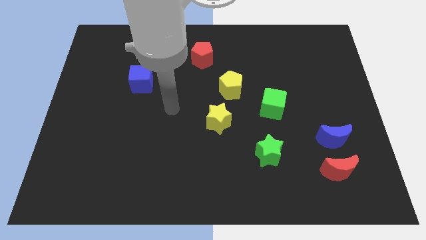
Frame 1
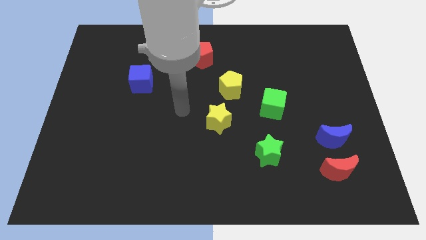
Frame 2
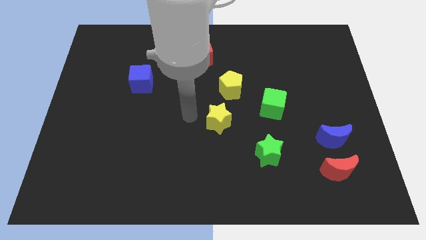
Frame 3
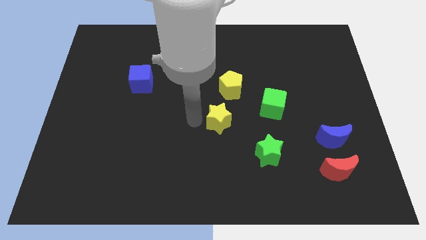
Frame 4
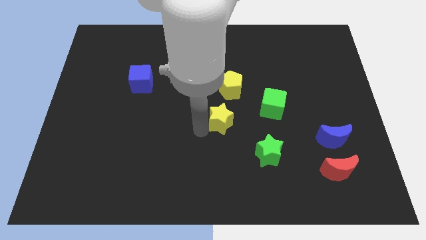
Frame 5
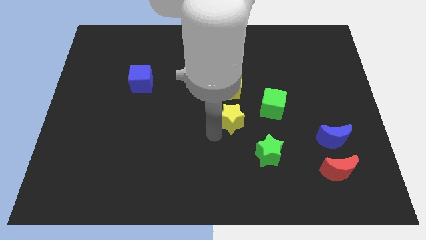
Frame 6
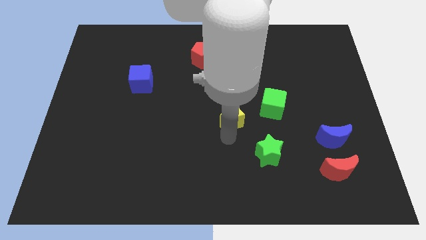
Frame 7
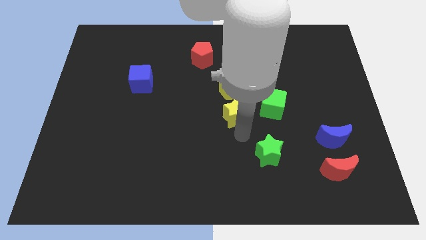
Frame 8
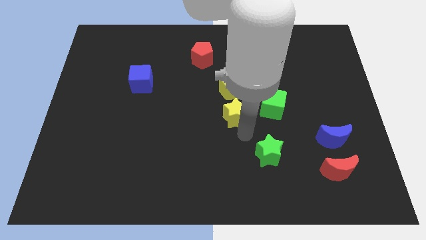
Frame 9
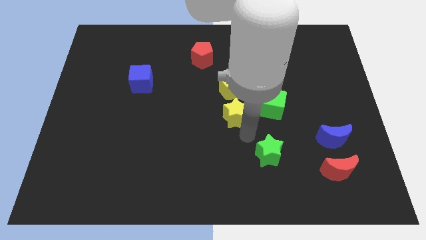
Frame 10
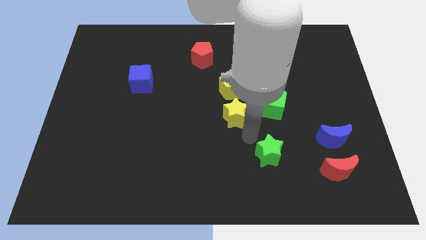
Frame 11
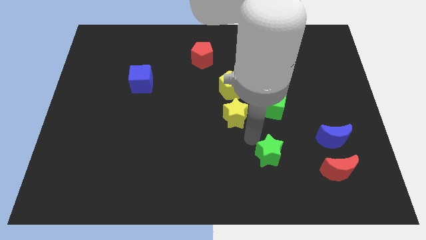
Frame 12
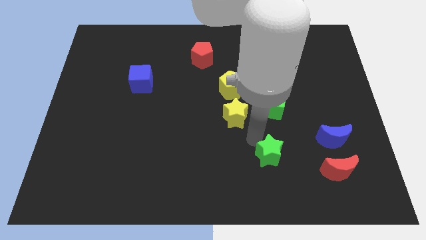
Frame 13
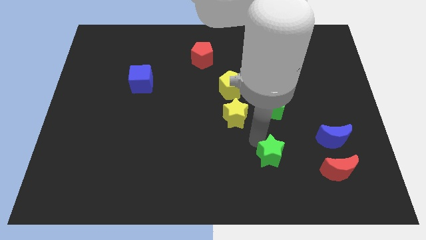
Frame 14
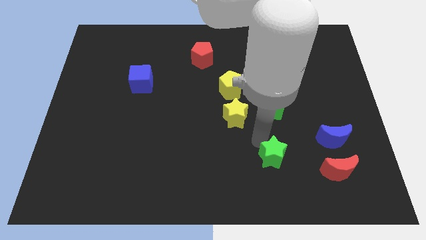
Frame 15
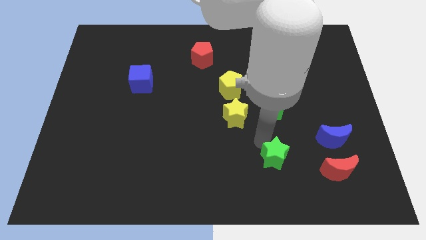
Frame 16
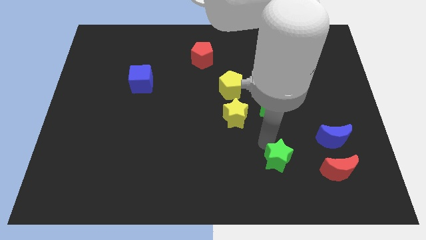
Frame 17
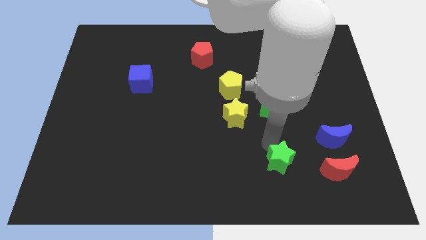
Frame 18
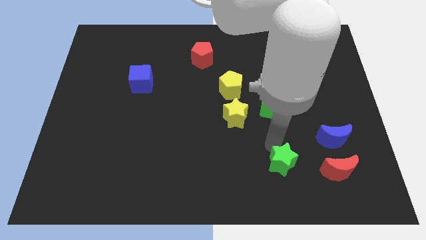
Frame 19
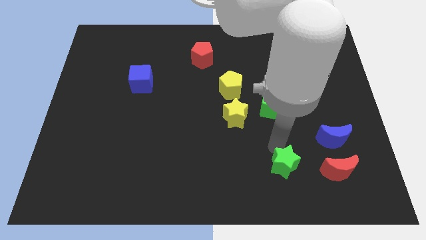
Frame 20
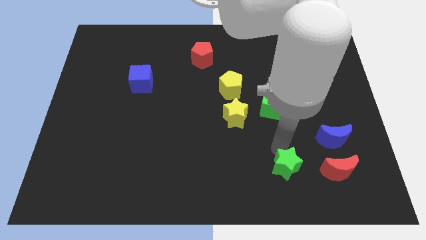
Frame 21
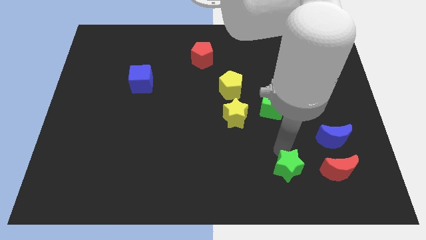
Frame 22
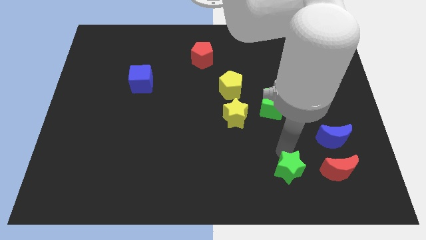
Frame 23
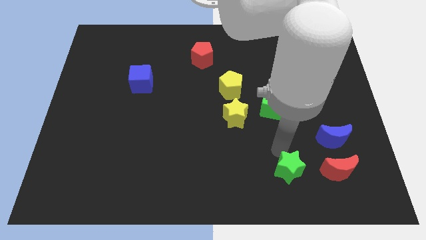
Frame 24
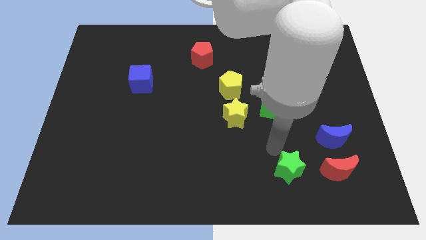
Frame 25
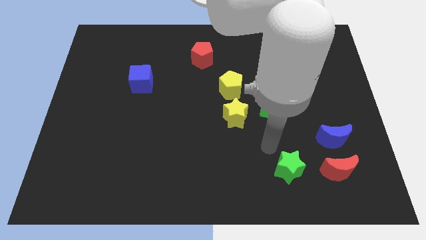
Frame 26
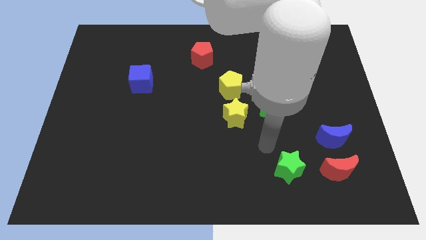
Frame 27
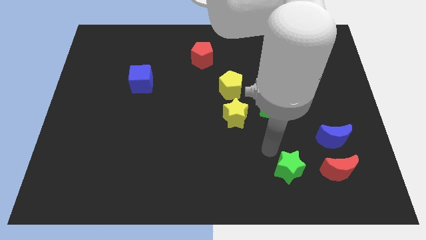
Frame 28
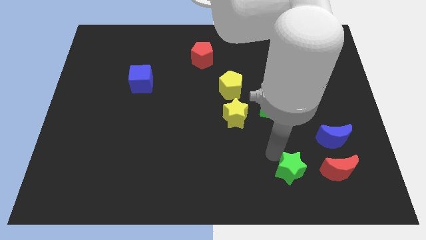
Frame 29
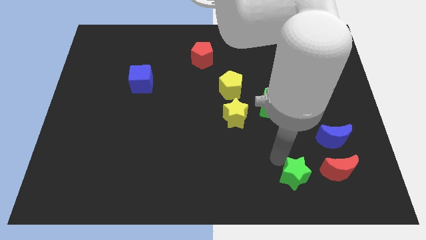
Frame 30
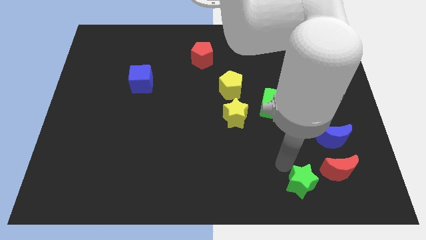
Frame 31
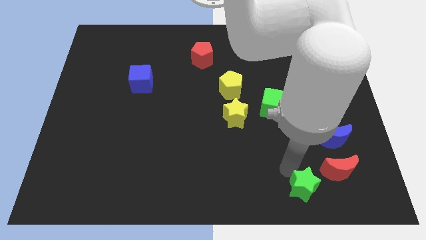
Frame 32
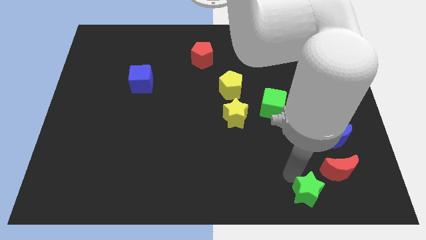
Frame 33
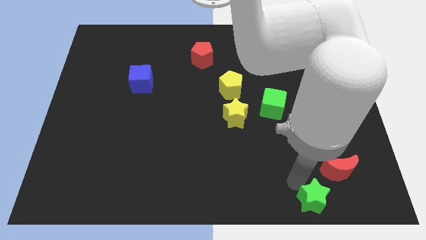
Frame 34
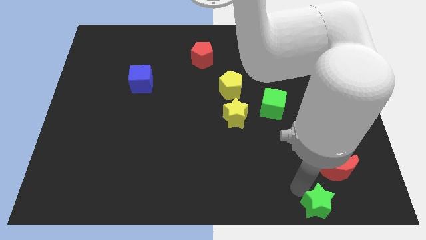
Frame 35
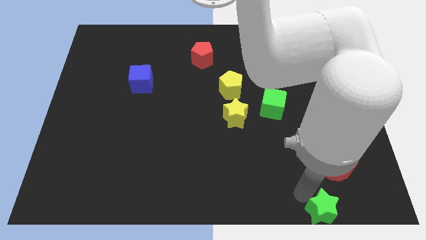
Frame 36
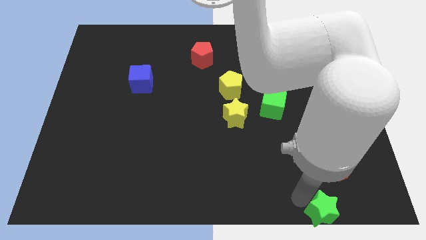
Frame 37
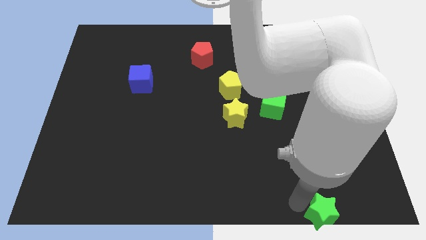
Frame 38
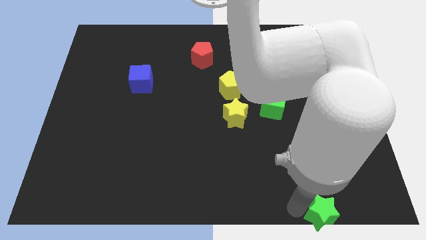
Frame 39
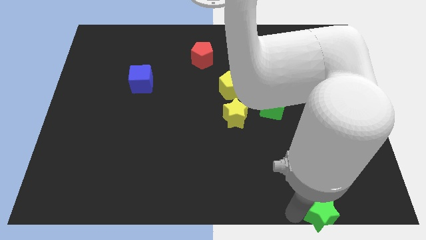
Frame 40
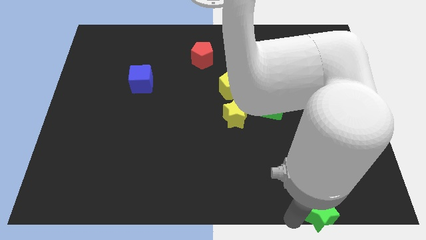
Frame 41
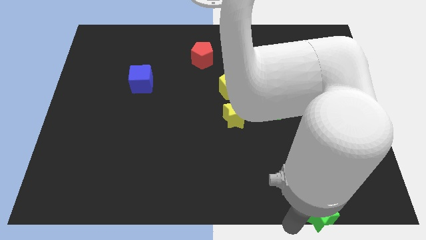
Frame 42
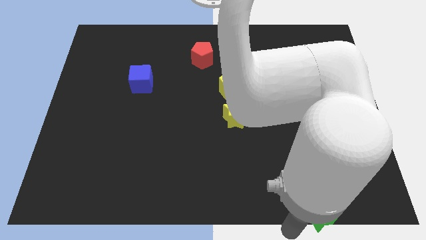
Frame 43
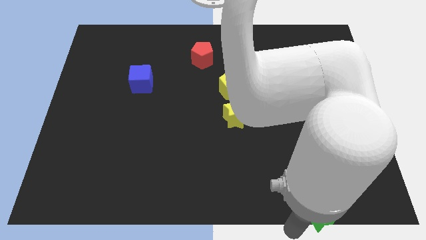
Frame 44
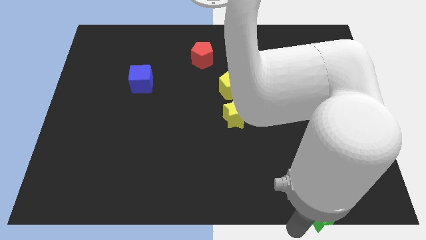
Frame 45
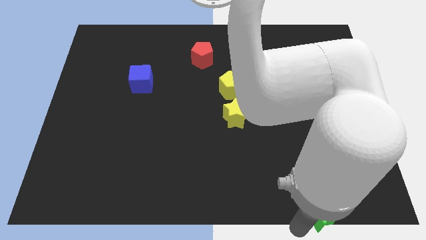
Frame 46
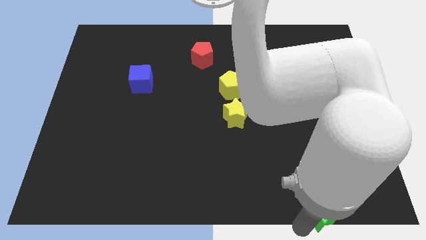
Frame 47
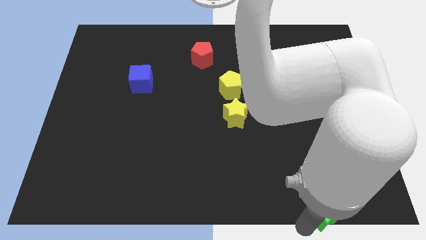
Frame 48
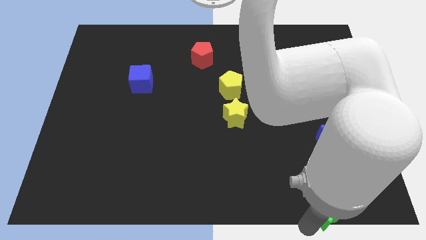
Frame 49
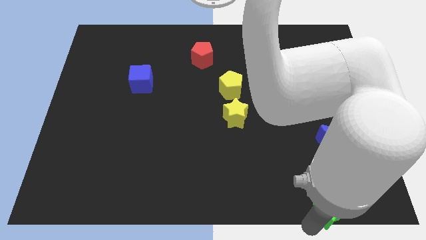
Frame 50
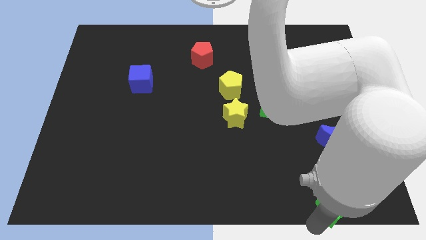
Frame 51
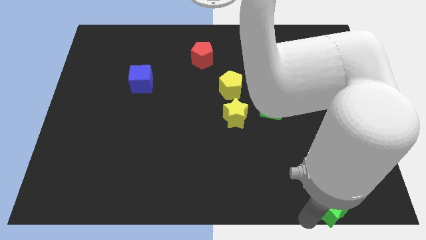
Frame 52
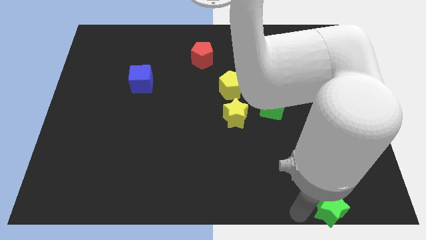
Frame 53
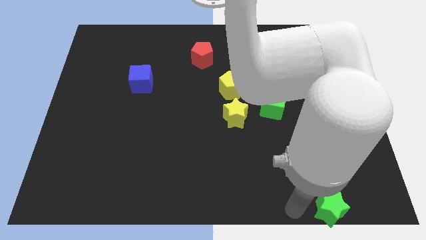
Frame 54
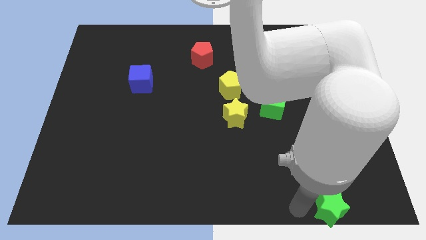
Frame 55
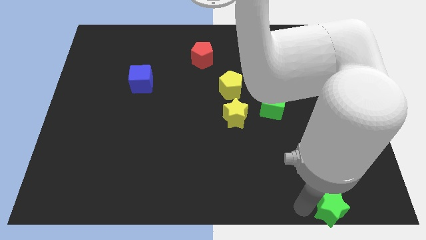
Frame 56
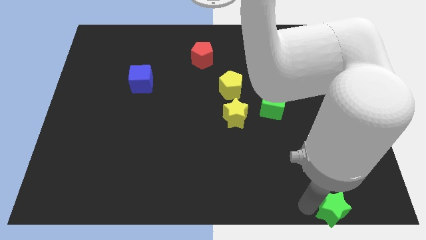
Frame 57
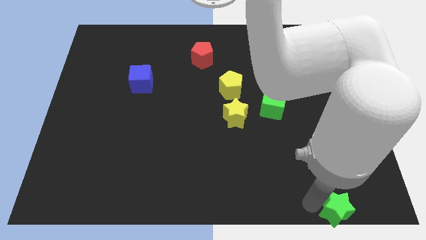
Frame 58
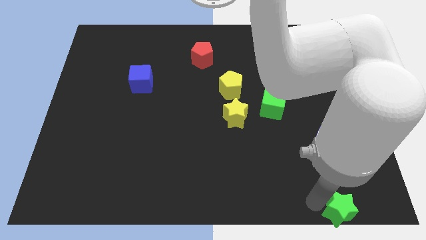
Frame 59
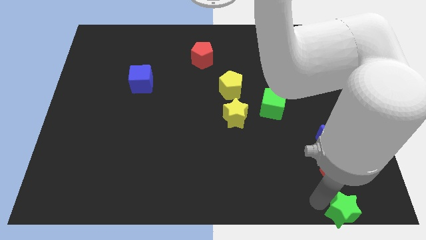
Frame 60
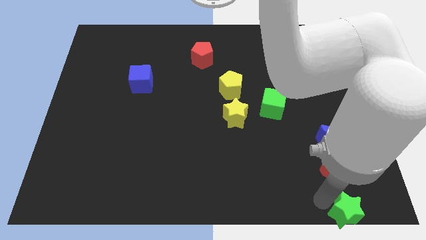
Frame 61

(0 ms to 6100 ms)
push the green star to the bottom right corner

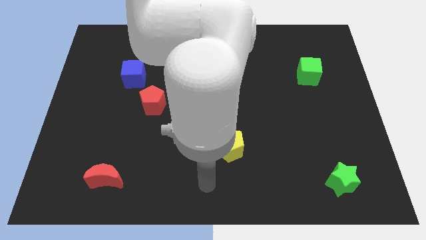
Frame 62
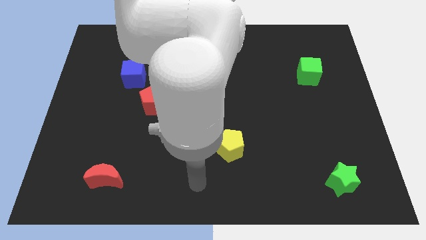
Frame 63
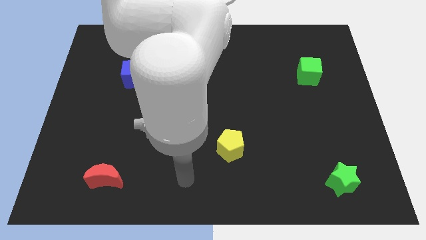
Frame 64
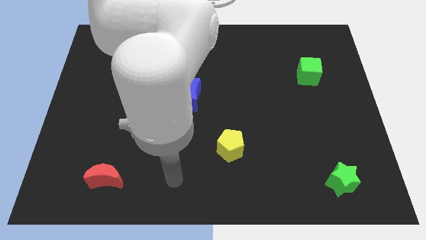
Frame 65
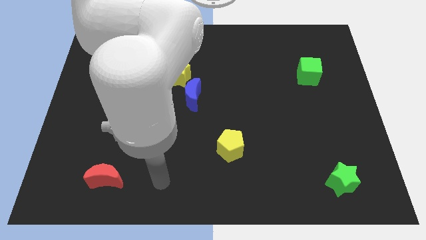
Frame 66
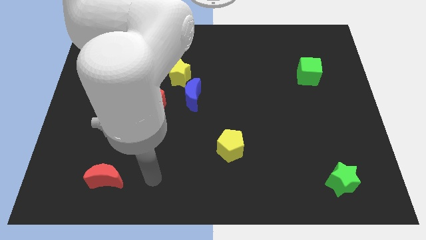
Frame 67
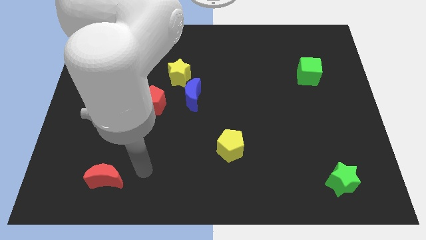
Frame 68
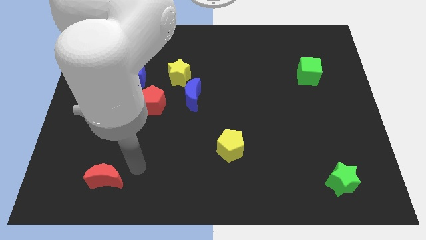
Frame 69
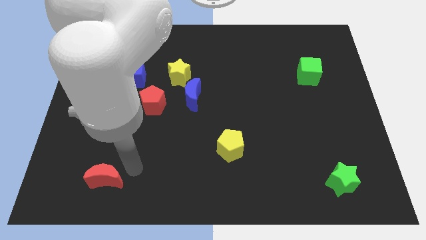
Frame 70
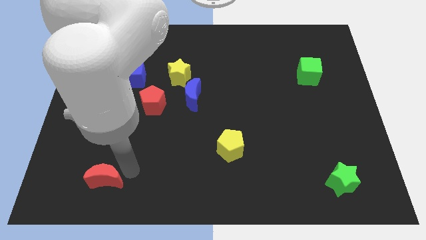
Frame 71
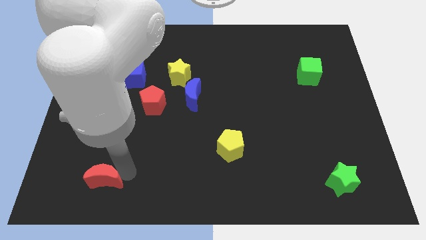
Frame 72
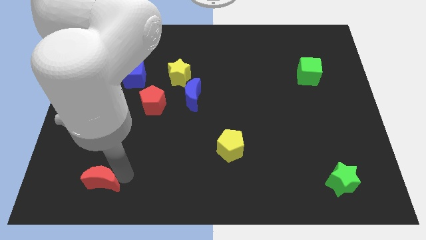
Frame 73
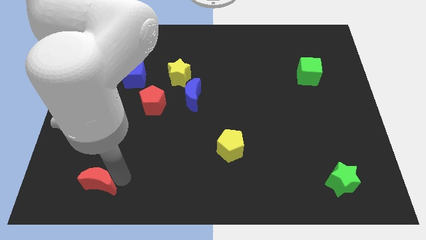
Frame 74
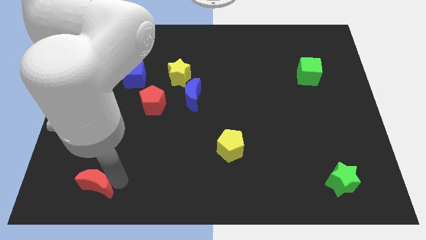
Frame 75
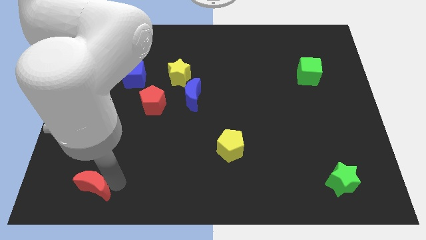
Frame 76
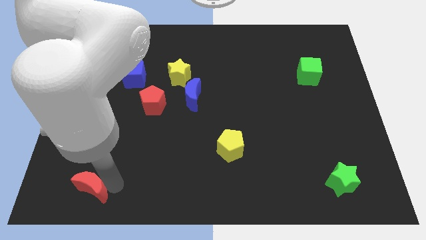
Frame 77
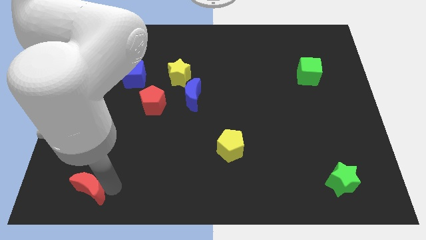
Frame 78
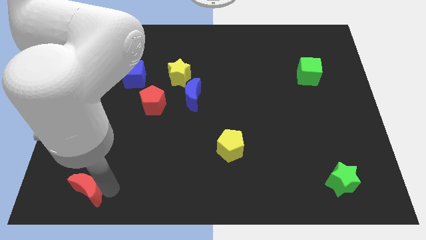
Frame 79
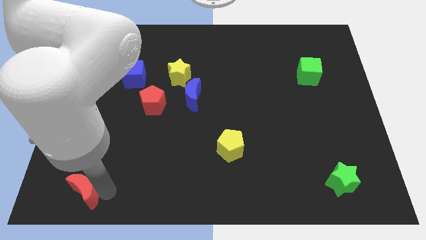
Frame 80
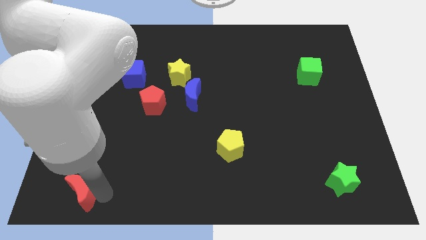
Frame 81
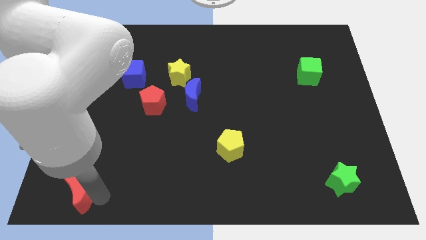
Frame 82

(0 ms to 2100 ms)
put the red moon to the bottom left of the board
